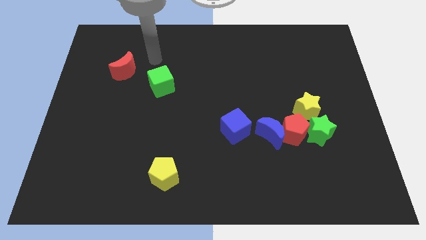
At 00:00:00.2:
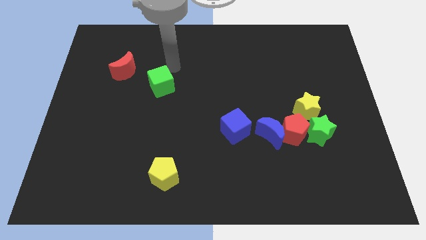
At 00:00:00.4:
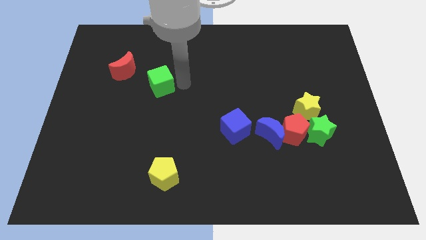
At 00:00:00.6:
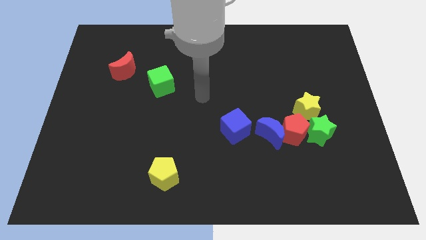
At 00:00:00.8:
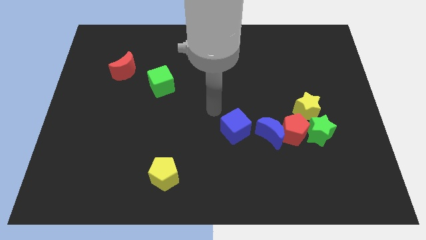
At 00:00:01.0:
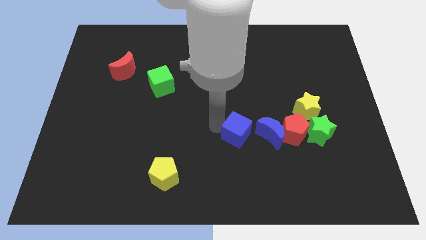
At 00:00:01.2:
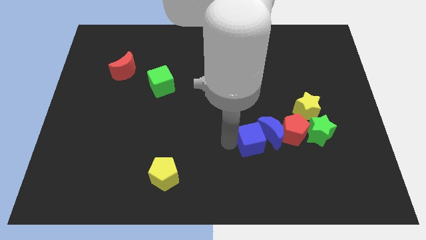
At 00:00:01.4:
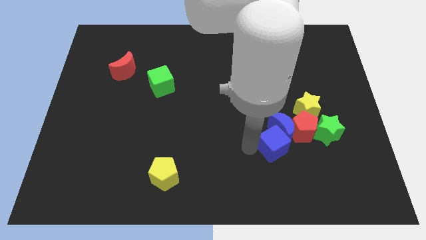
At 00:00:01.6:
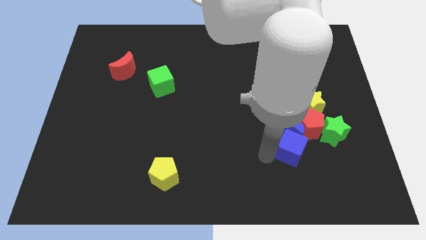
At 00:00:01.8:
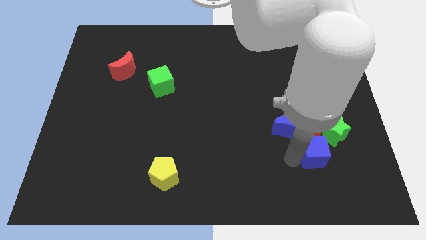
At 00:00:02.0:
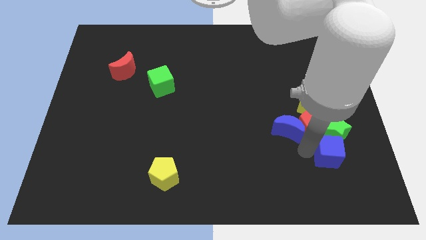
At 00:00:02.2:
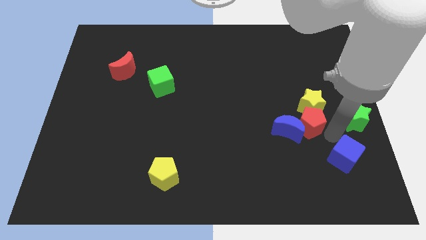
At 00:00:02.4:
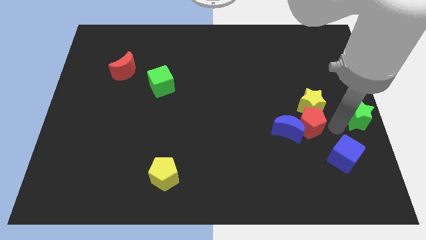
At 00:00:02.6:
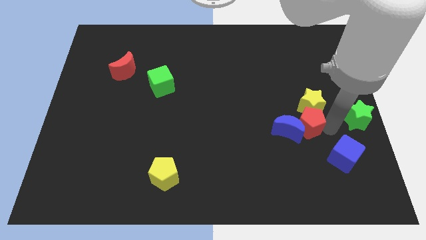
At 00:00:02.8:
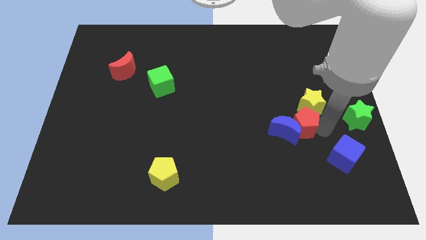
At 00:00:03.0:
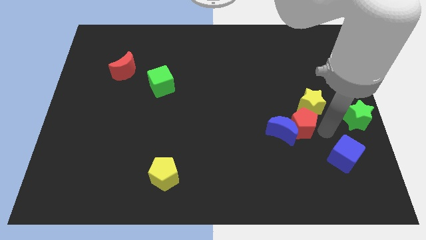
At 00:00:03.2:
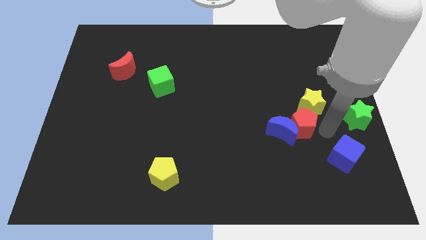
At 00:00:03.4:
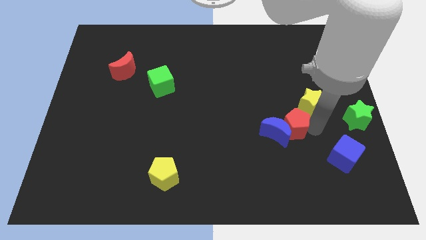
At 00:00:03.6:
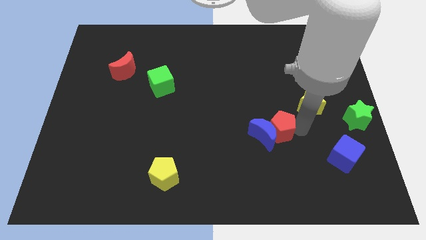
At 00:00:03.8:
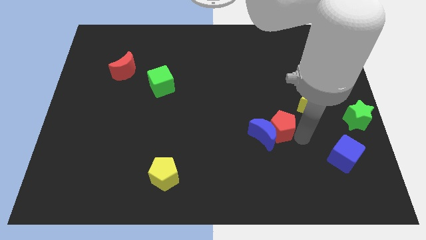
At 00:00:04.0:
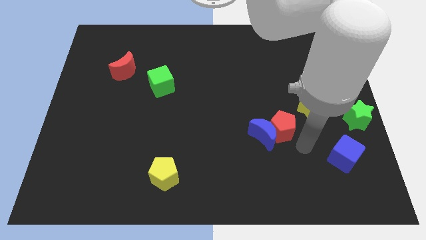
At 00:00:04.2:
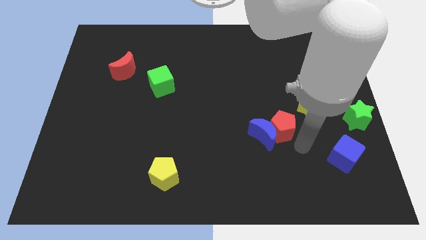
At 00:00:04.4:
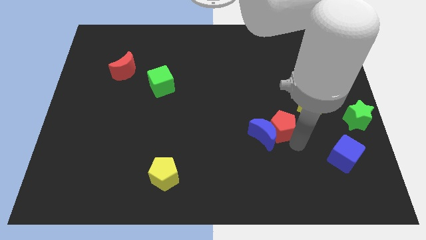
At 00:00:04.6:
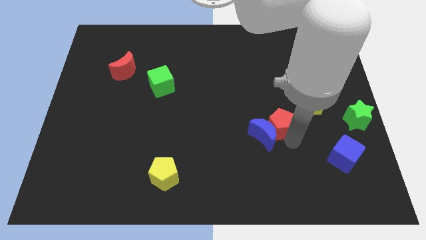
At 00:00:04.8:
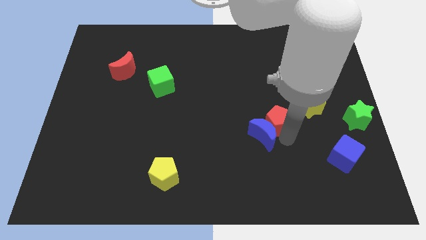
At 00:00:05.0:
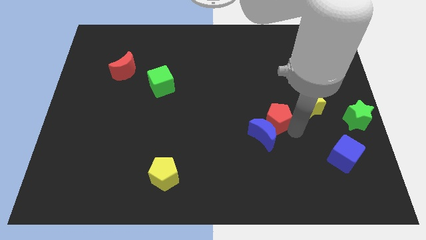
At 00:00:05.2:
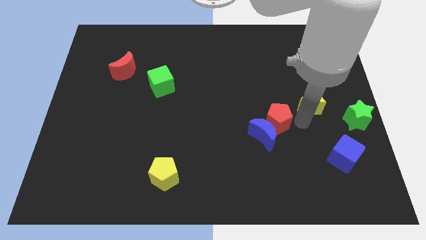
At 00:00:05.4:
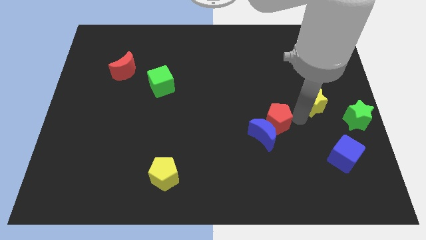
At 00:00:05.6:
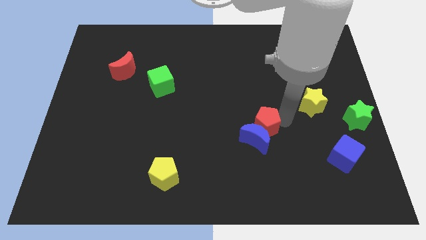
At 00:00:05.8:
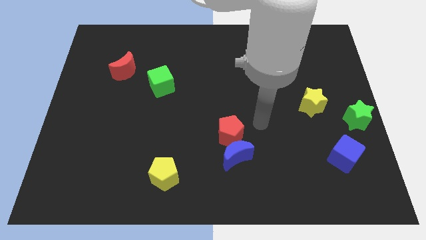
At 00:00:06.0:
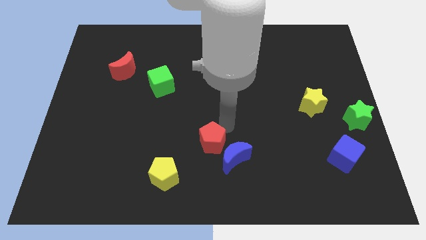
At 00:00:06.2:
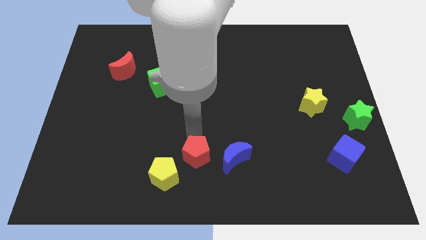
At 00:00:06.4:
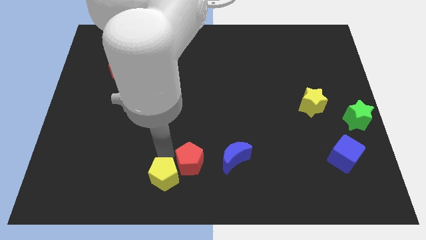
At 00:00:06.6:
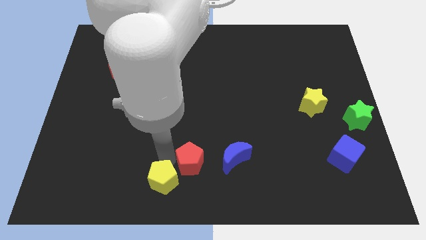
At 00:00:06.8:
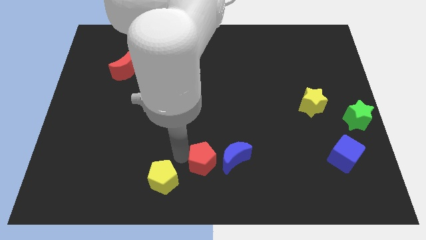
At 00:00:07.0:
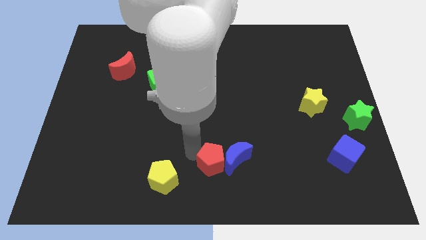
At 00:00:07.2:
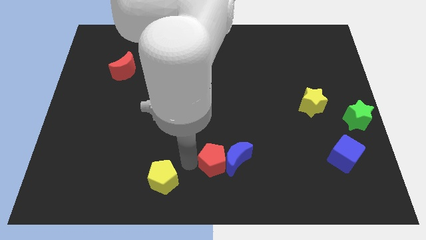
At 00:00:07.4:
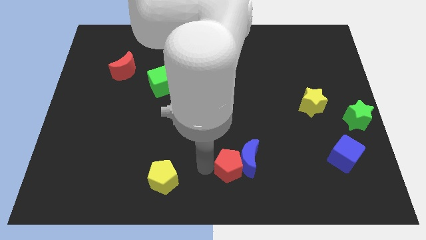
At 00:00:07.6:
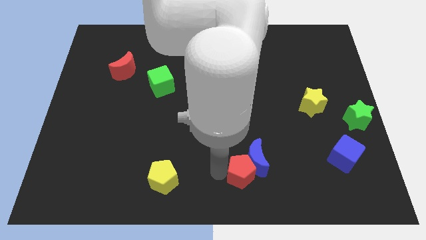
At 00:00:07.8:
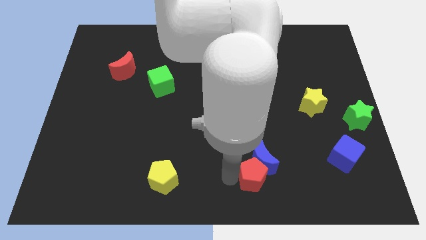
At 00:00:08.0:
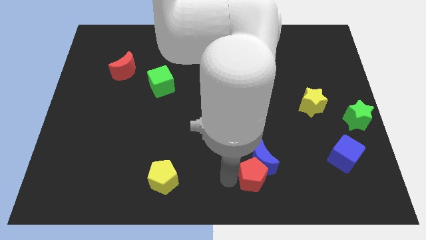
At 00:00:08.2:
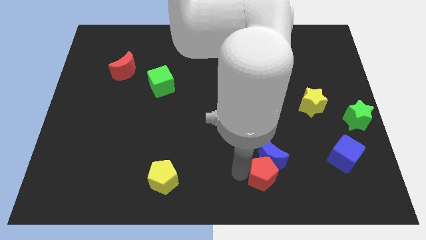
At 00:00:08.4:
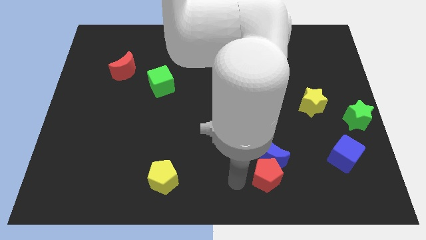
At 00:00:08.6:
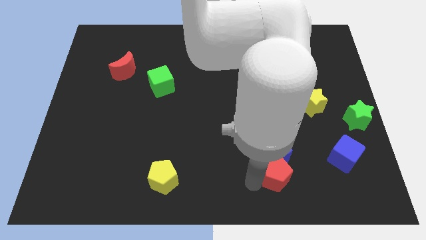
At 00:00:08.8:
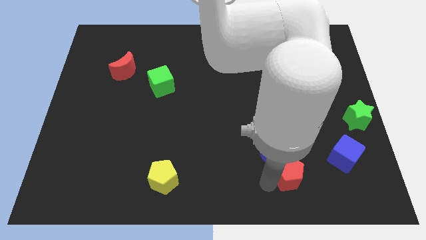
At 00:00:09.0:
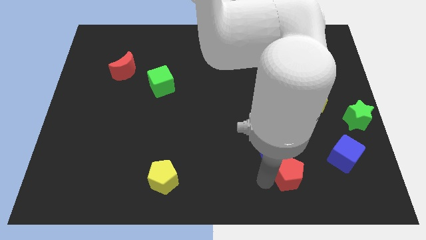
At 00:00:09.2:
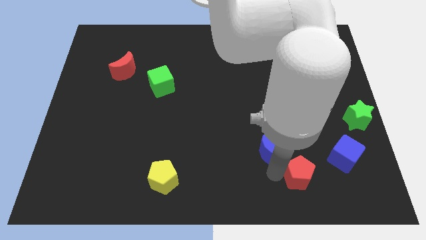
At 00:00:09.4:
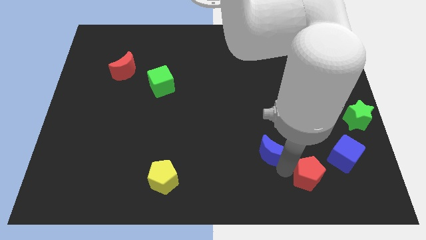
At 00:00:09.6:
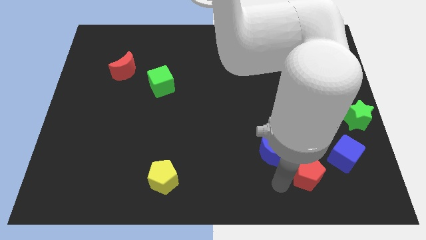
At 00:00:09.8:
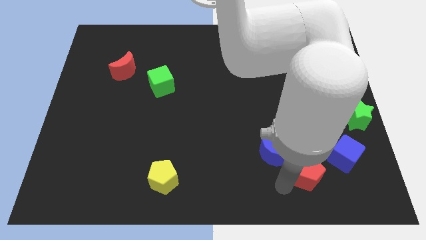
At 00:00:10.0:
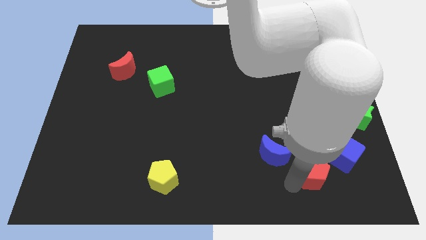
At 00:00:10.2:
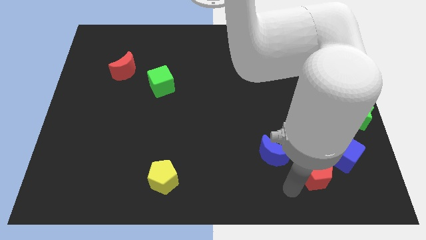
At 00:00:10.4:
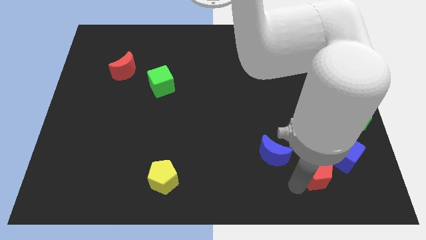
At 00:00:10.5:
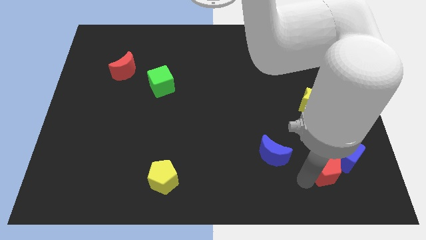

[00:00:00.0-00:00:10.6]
push the red pentagon towards the blue cube

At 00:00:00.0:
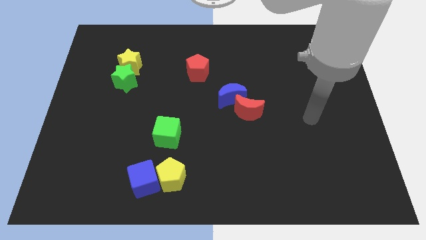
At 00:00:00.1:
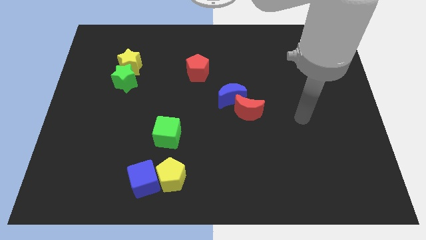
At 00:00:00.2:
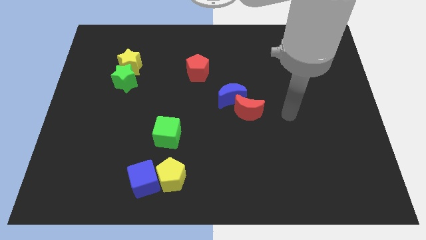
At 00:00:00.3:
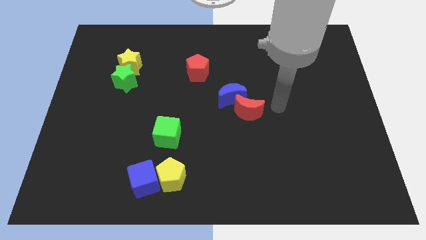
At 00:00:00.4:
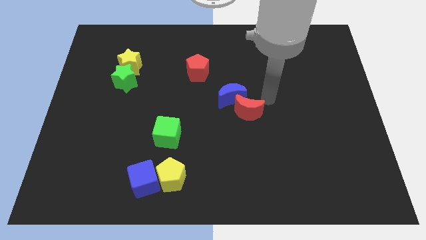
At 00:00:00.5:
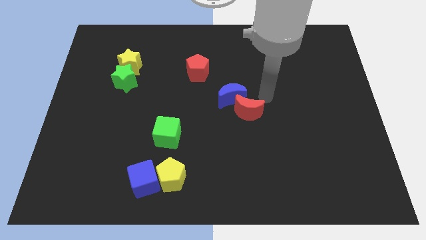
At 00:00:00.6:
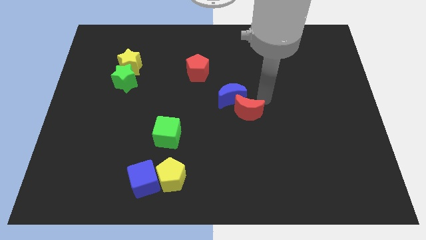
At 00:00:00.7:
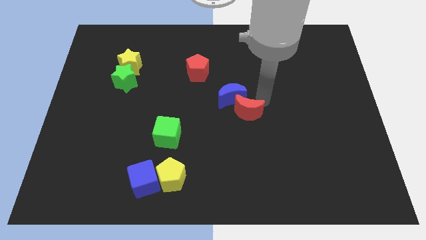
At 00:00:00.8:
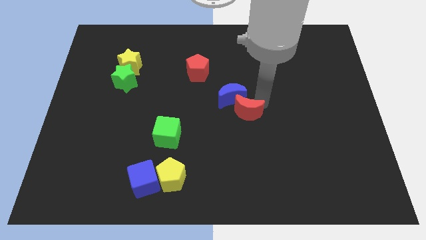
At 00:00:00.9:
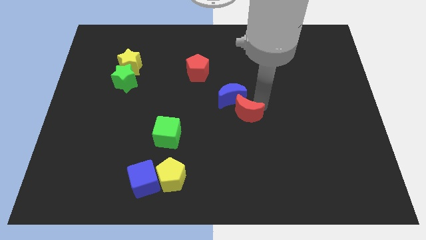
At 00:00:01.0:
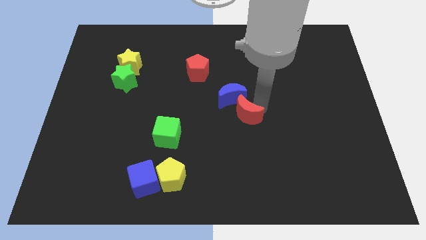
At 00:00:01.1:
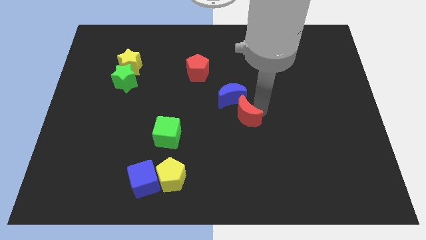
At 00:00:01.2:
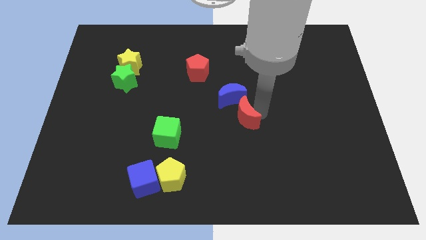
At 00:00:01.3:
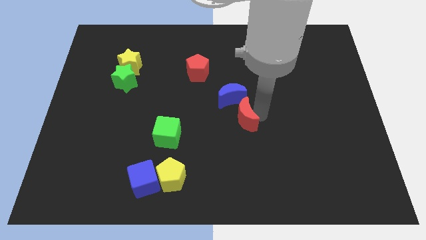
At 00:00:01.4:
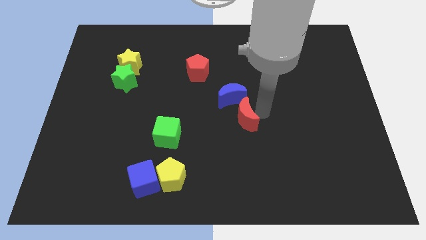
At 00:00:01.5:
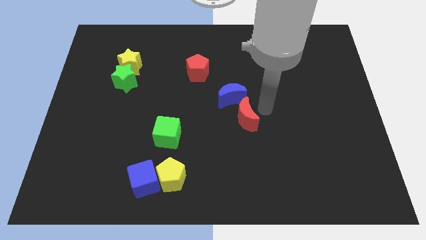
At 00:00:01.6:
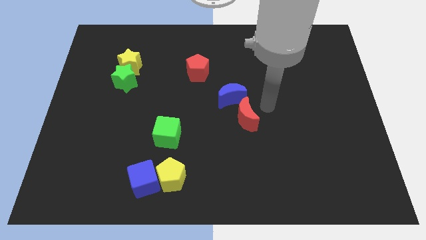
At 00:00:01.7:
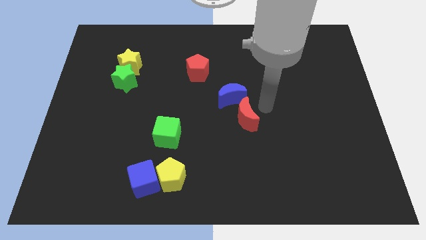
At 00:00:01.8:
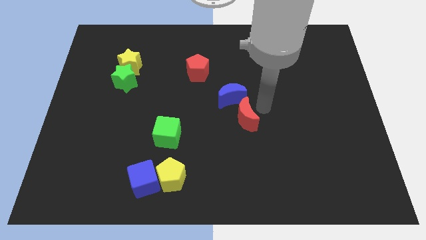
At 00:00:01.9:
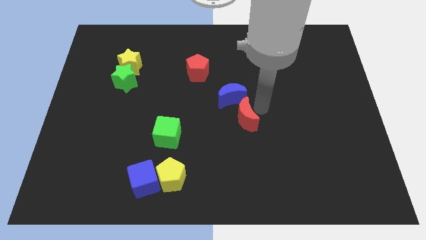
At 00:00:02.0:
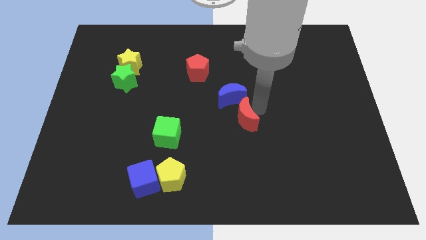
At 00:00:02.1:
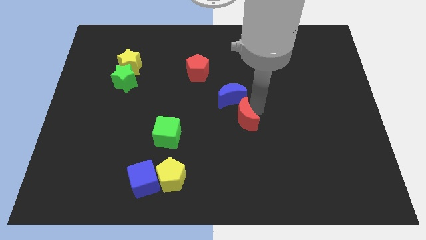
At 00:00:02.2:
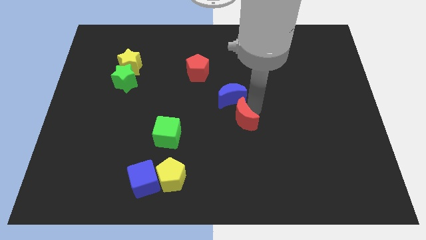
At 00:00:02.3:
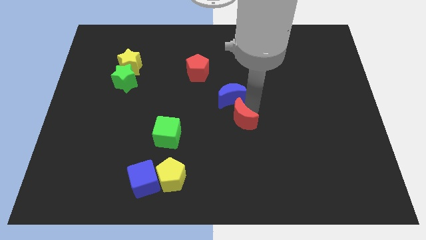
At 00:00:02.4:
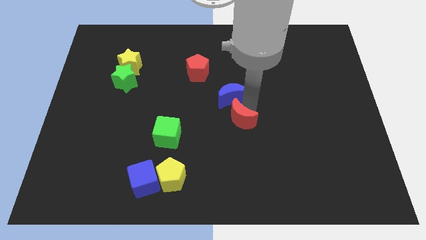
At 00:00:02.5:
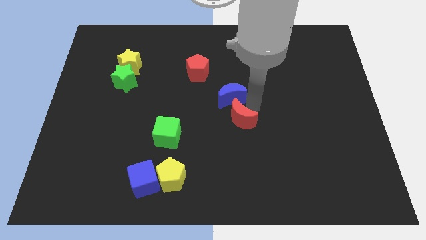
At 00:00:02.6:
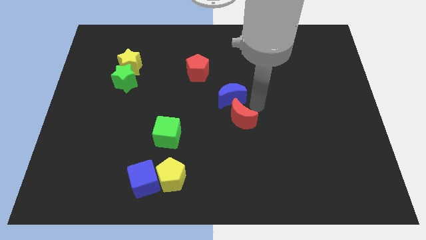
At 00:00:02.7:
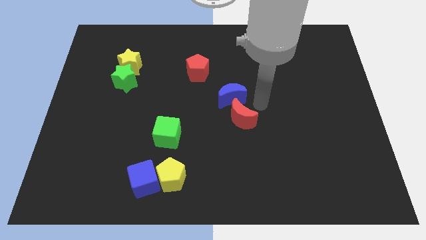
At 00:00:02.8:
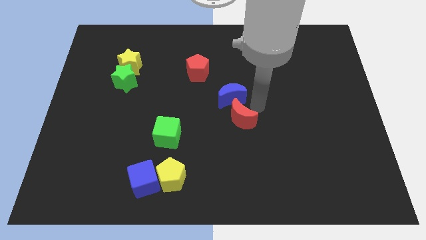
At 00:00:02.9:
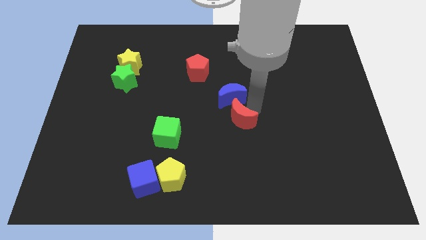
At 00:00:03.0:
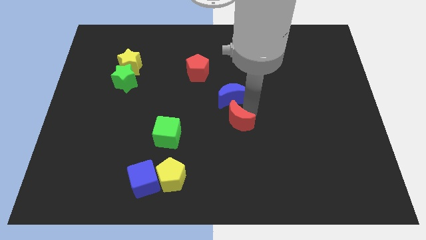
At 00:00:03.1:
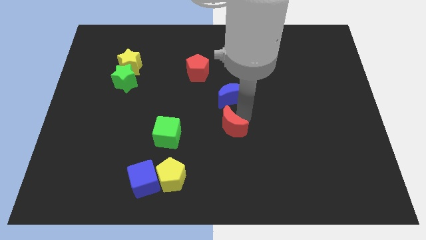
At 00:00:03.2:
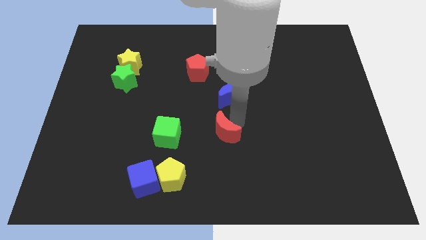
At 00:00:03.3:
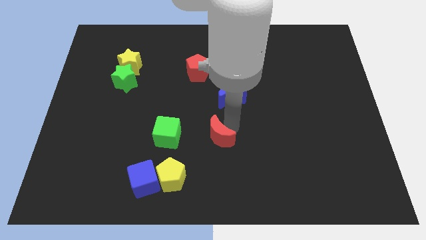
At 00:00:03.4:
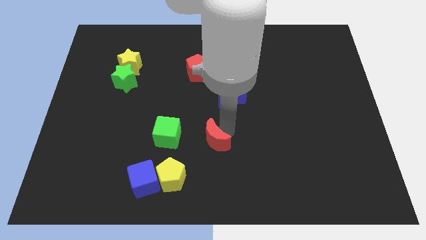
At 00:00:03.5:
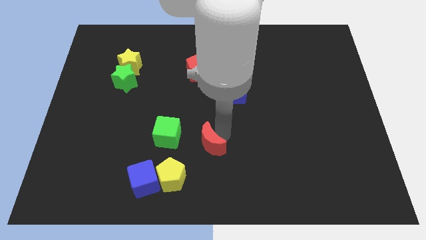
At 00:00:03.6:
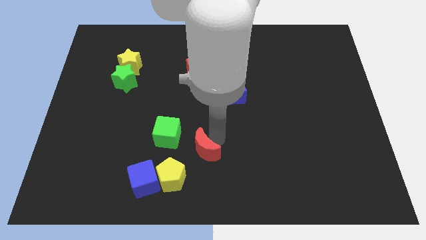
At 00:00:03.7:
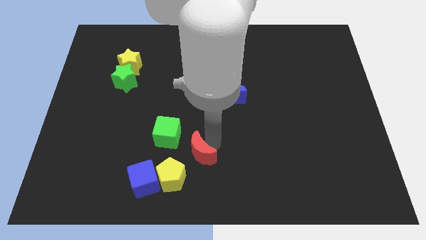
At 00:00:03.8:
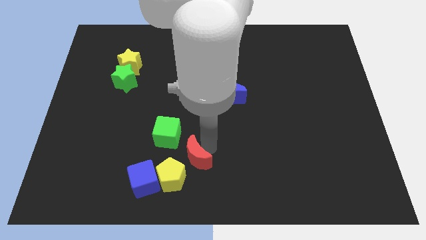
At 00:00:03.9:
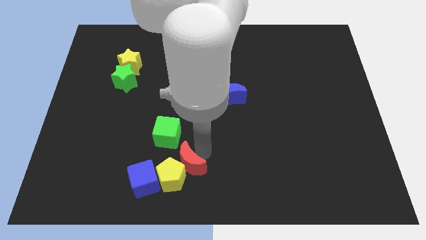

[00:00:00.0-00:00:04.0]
put the red moon close to the yellow pentagon
